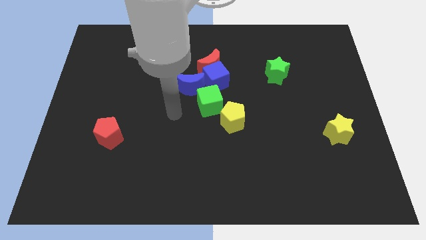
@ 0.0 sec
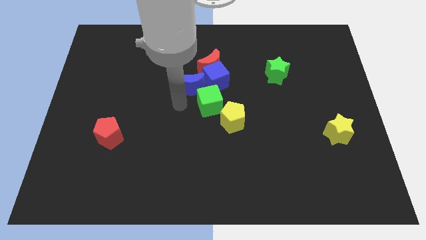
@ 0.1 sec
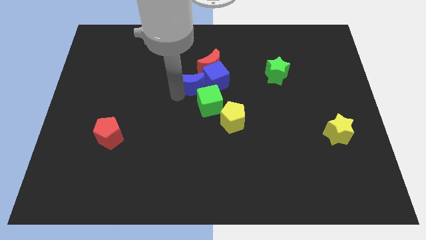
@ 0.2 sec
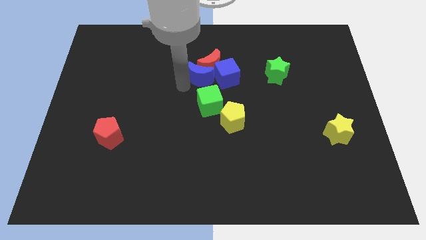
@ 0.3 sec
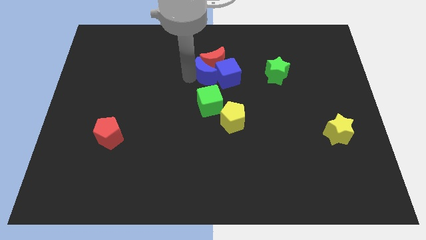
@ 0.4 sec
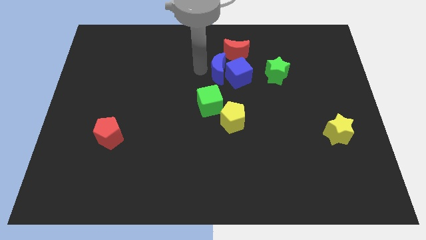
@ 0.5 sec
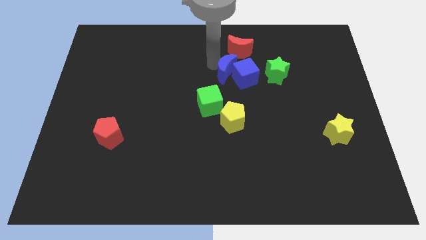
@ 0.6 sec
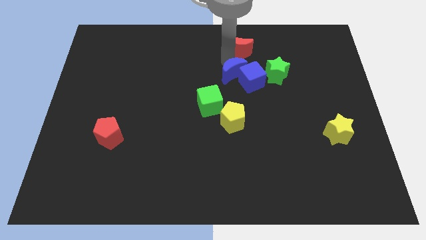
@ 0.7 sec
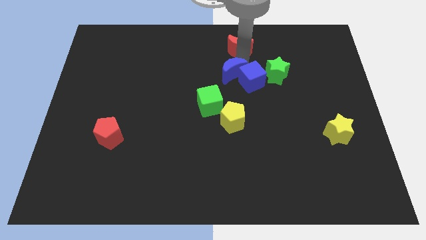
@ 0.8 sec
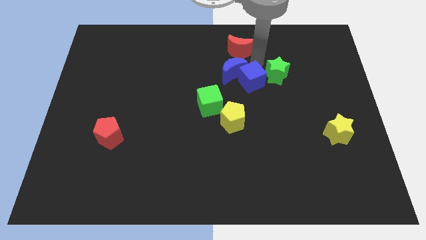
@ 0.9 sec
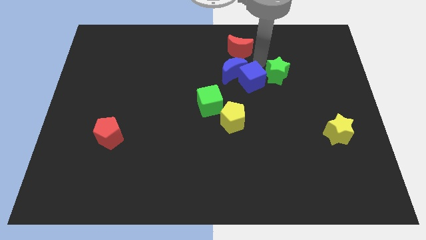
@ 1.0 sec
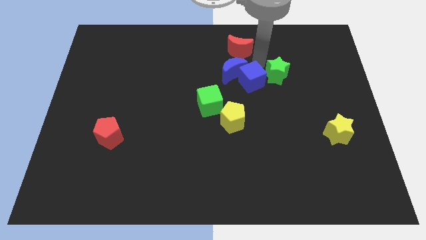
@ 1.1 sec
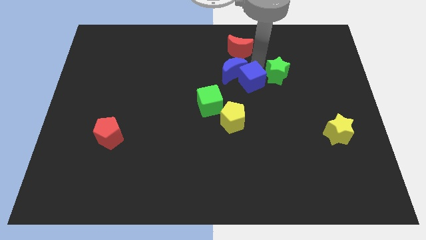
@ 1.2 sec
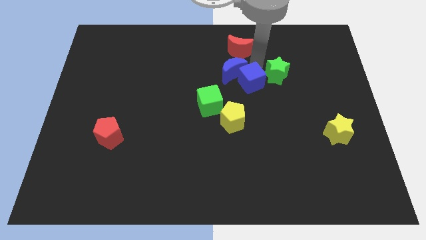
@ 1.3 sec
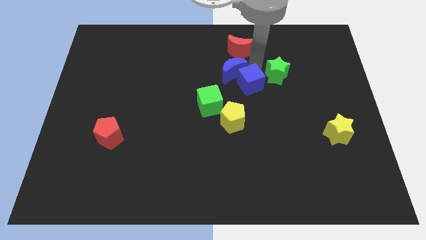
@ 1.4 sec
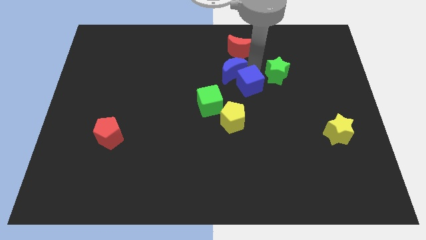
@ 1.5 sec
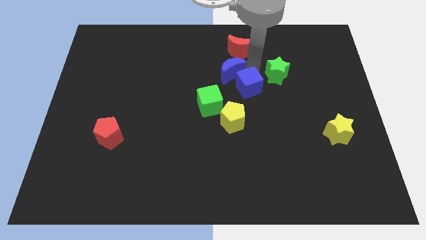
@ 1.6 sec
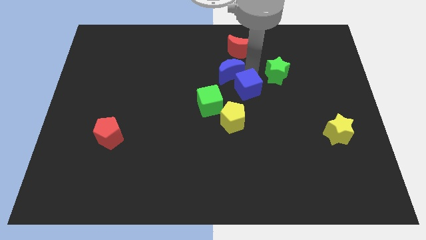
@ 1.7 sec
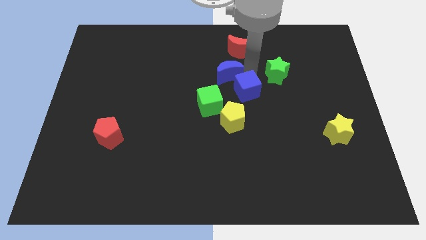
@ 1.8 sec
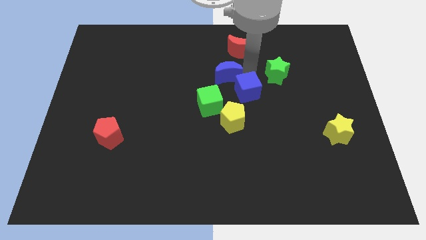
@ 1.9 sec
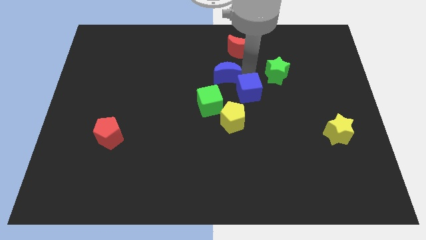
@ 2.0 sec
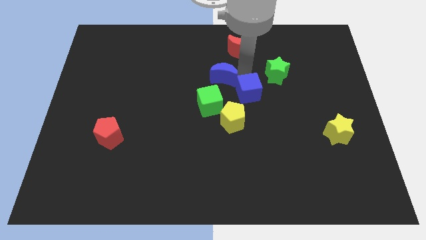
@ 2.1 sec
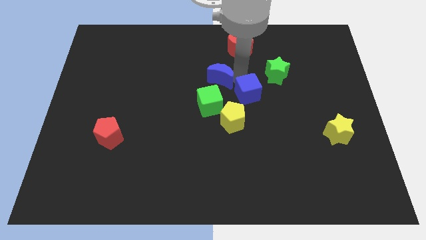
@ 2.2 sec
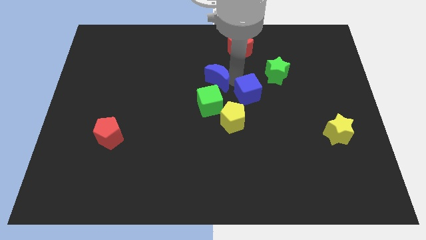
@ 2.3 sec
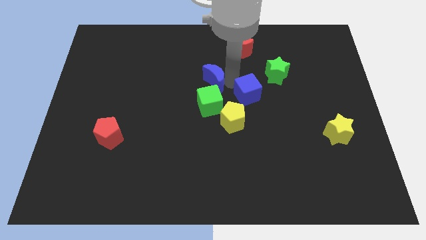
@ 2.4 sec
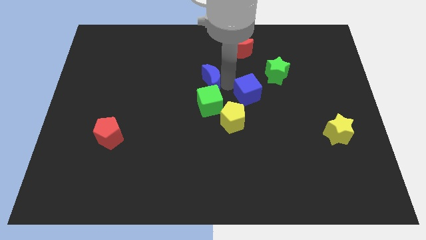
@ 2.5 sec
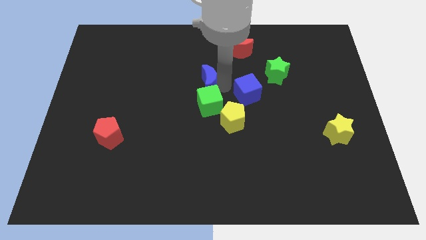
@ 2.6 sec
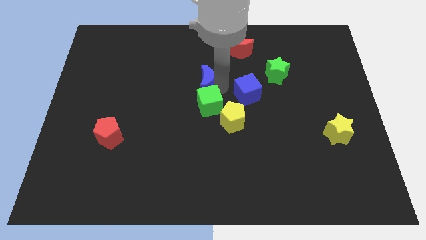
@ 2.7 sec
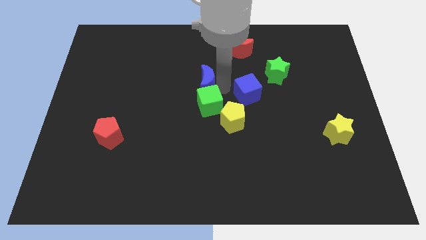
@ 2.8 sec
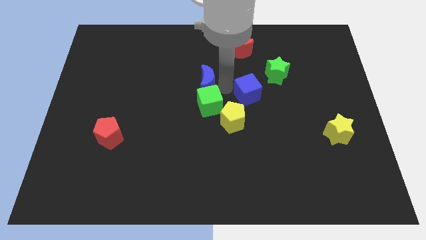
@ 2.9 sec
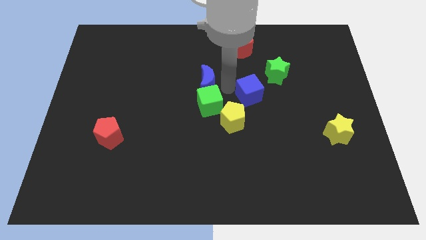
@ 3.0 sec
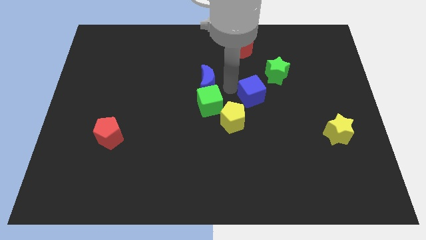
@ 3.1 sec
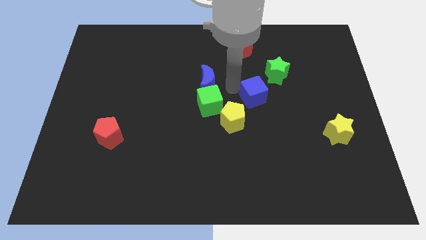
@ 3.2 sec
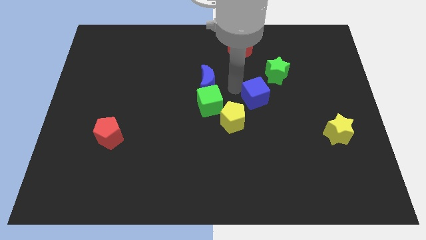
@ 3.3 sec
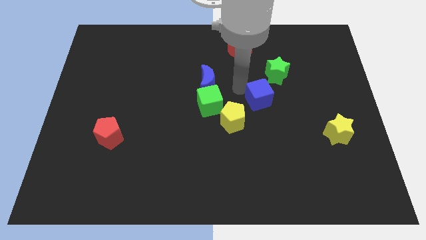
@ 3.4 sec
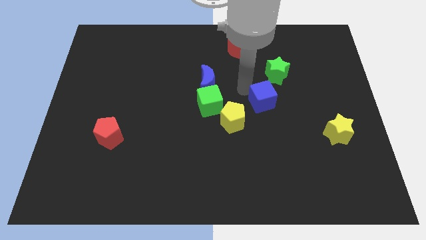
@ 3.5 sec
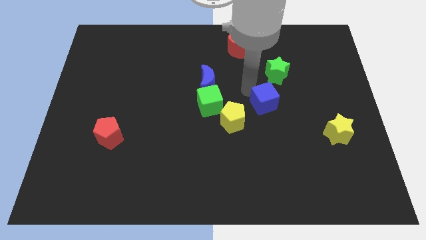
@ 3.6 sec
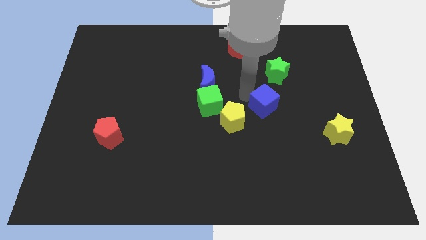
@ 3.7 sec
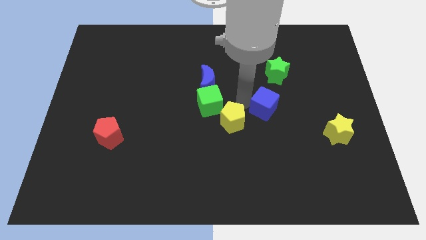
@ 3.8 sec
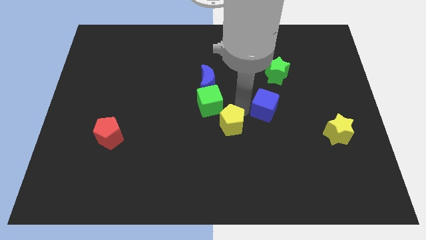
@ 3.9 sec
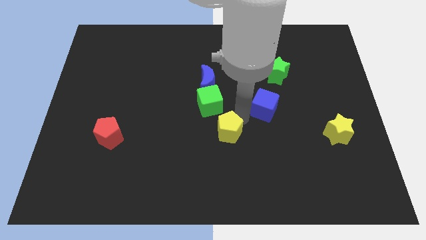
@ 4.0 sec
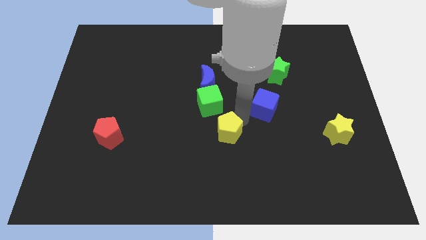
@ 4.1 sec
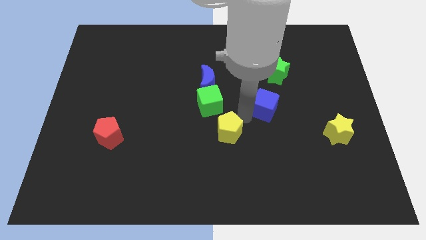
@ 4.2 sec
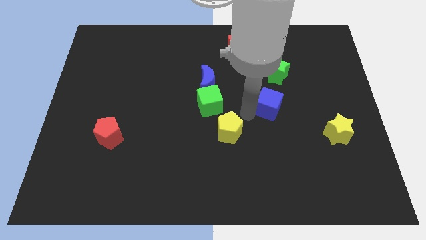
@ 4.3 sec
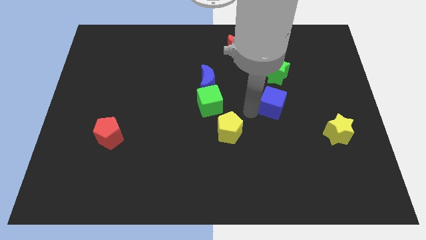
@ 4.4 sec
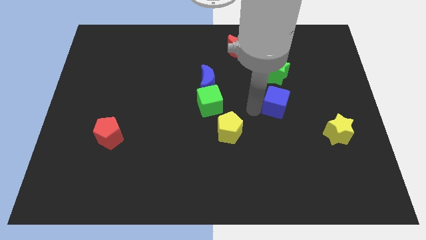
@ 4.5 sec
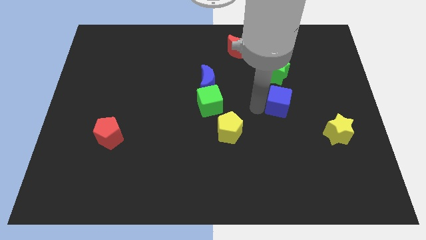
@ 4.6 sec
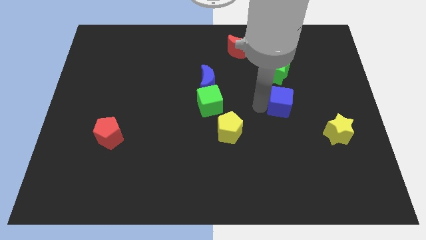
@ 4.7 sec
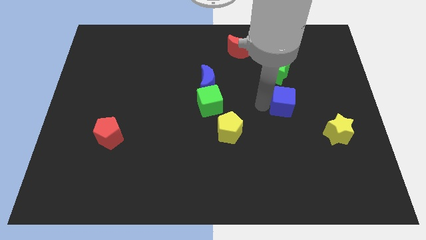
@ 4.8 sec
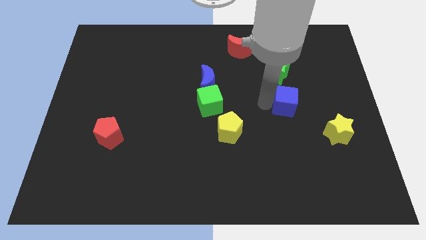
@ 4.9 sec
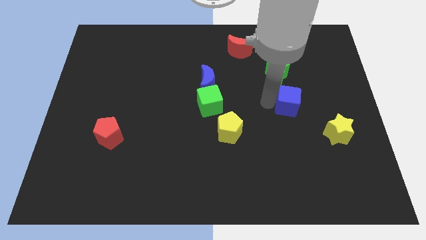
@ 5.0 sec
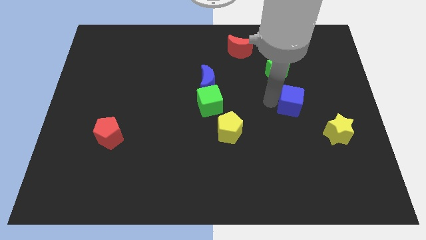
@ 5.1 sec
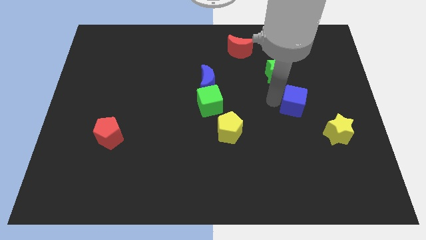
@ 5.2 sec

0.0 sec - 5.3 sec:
slide the blue cube to the bottom right of the green star

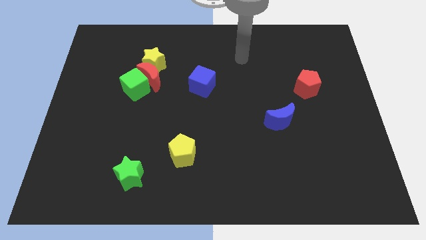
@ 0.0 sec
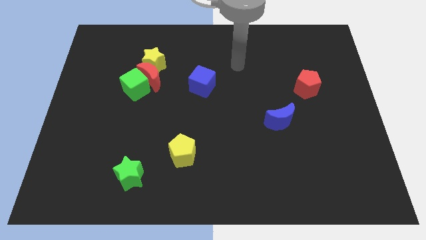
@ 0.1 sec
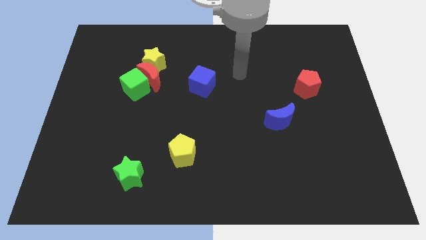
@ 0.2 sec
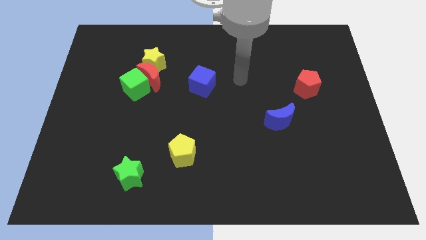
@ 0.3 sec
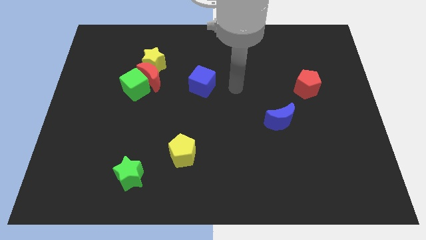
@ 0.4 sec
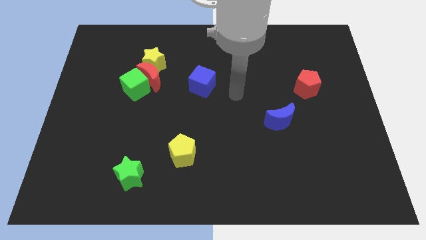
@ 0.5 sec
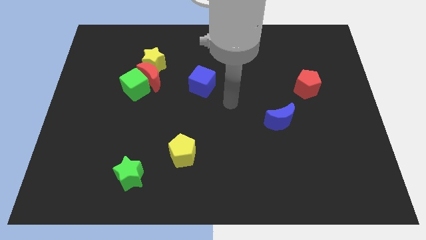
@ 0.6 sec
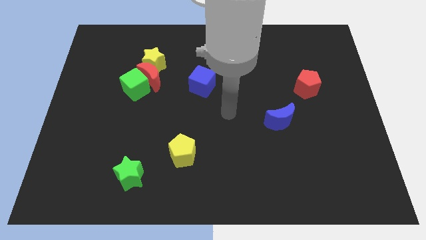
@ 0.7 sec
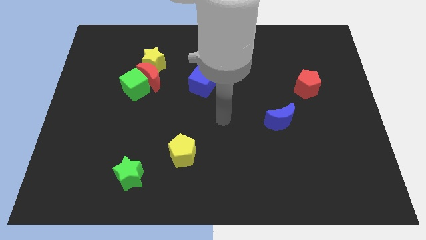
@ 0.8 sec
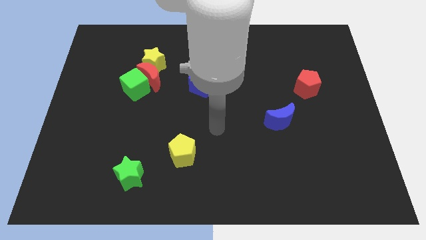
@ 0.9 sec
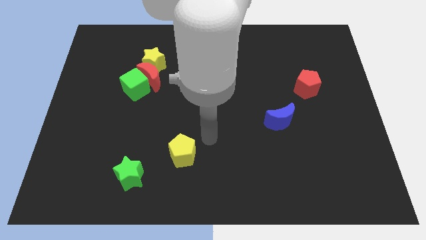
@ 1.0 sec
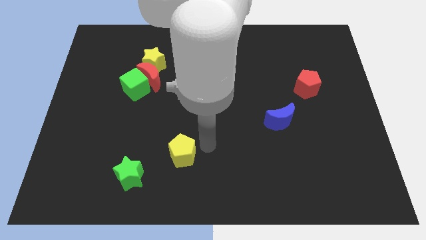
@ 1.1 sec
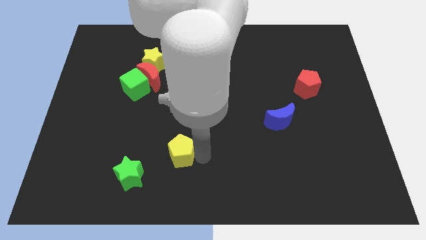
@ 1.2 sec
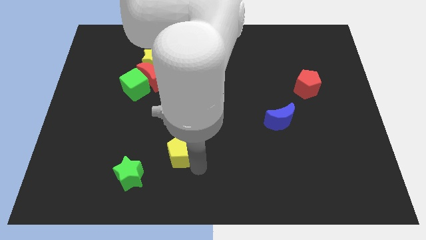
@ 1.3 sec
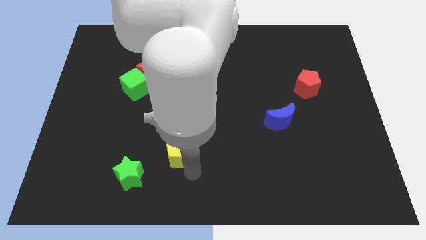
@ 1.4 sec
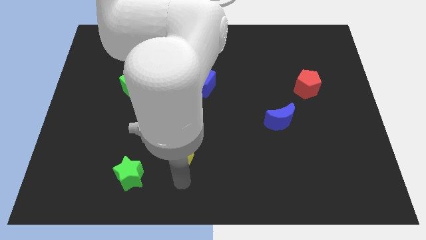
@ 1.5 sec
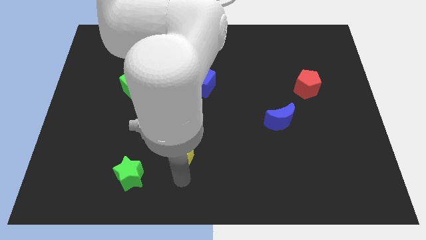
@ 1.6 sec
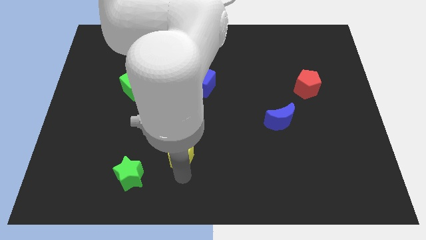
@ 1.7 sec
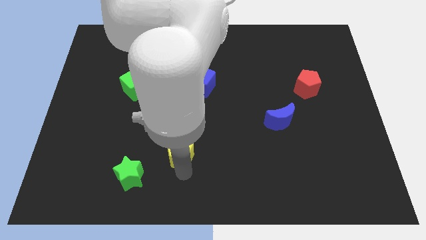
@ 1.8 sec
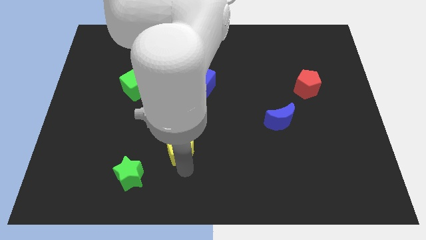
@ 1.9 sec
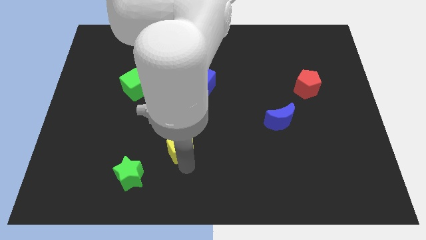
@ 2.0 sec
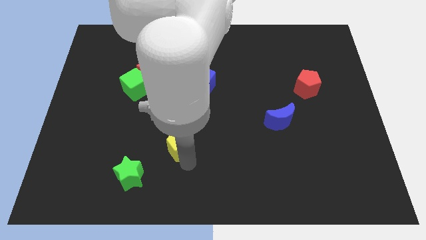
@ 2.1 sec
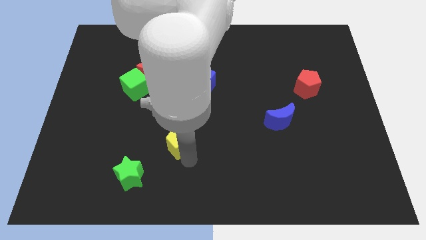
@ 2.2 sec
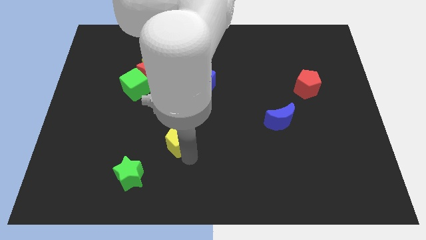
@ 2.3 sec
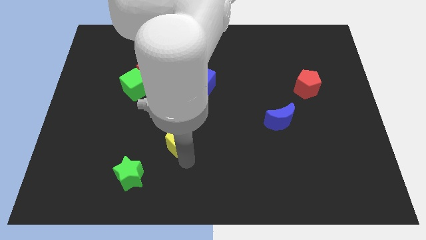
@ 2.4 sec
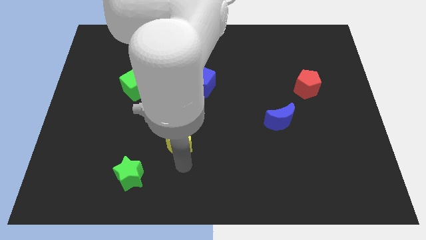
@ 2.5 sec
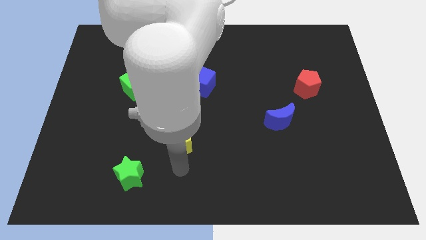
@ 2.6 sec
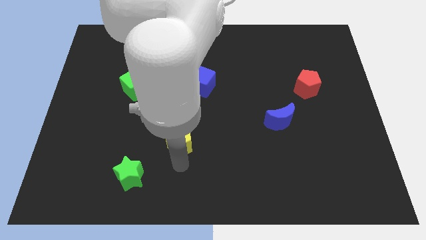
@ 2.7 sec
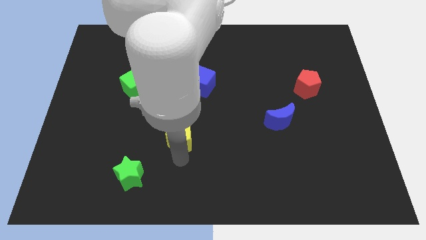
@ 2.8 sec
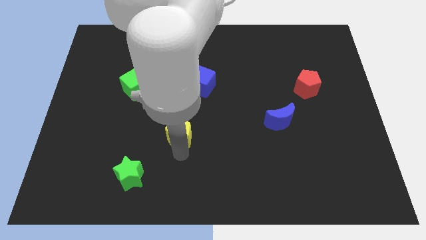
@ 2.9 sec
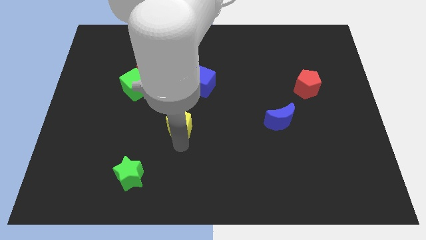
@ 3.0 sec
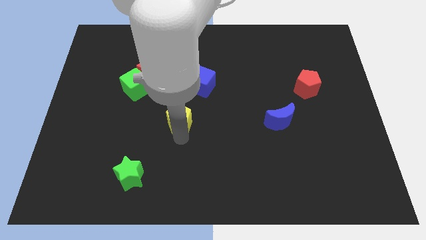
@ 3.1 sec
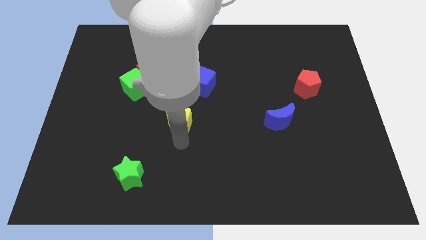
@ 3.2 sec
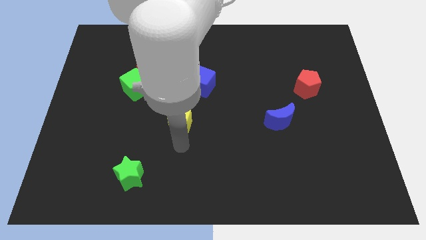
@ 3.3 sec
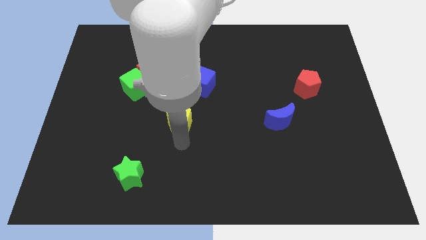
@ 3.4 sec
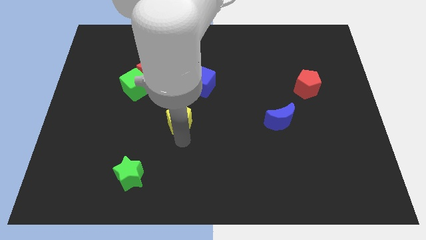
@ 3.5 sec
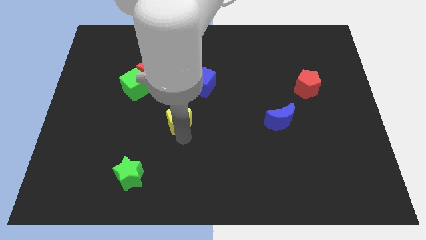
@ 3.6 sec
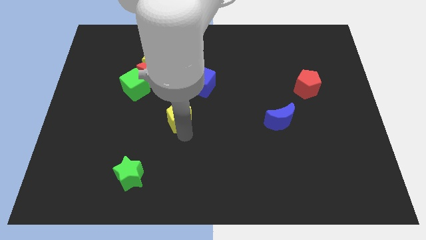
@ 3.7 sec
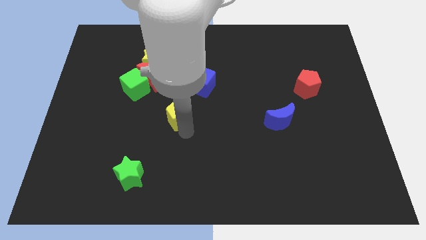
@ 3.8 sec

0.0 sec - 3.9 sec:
slide the yellow pentagon to the bottom left of the blue cube
